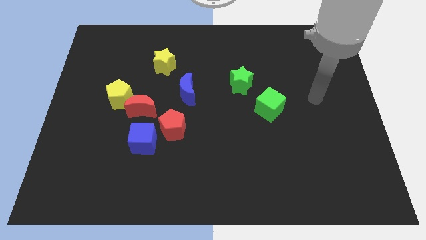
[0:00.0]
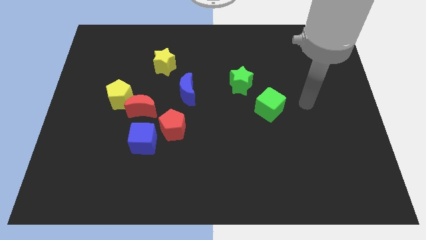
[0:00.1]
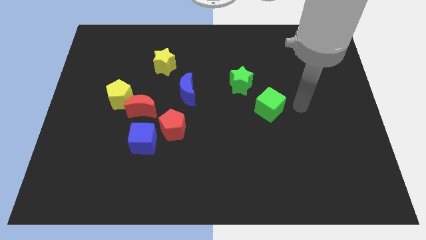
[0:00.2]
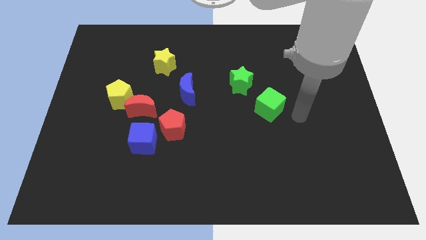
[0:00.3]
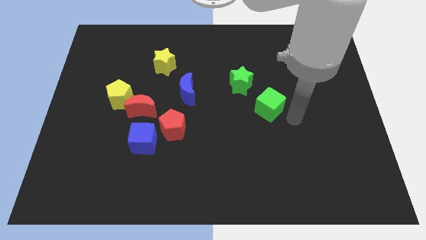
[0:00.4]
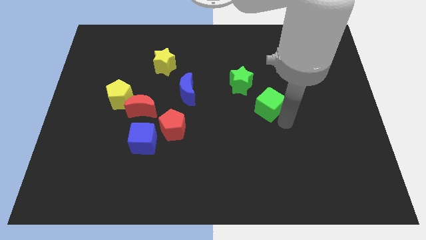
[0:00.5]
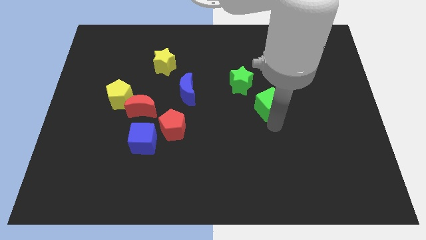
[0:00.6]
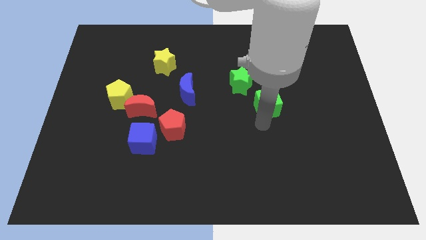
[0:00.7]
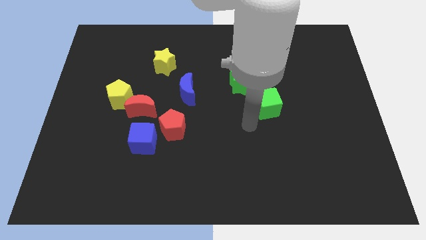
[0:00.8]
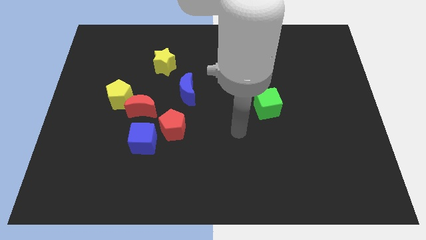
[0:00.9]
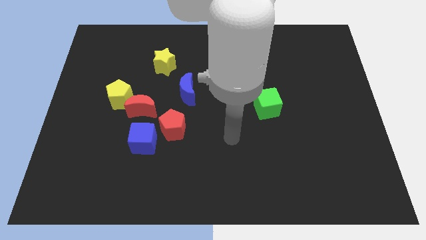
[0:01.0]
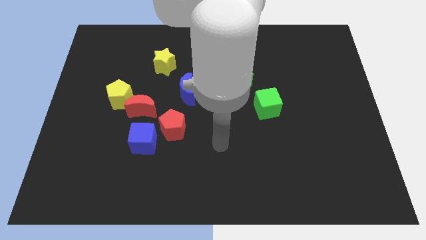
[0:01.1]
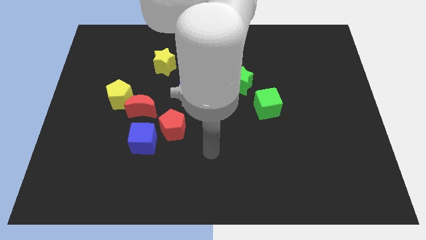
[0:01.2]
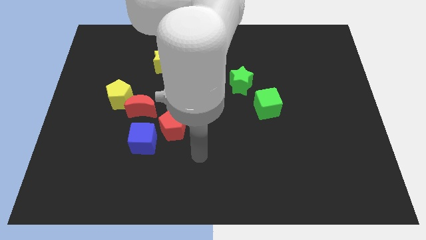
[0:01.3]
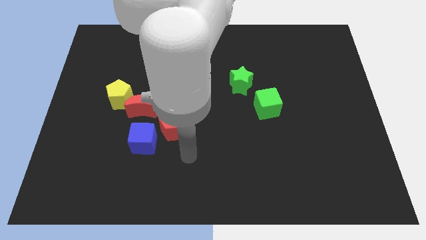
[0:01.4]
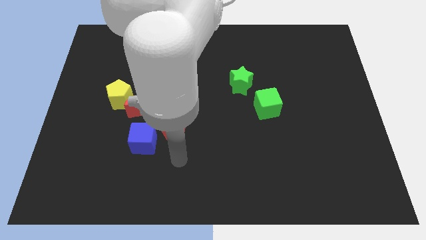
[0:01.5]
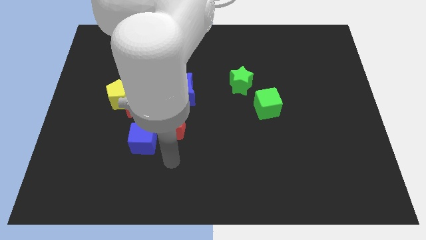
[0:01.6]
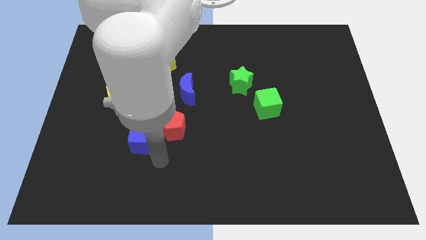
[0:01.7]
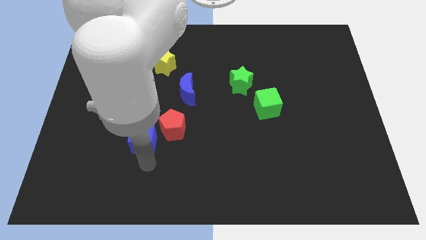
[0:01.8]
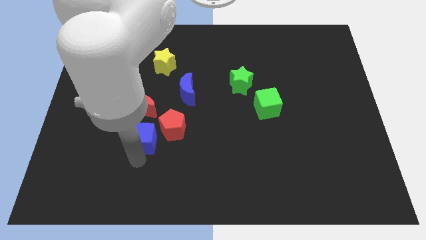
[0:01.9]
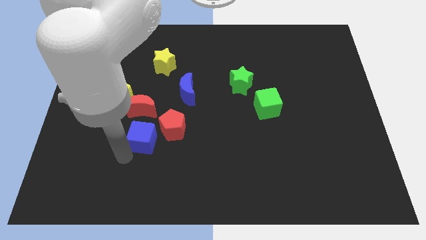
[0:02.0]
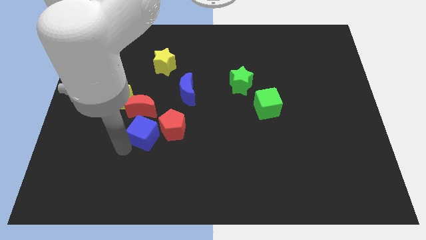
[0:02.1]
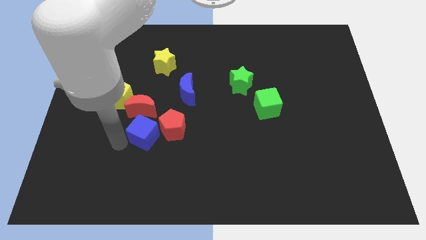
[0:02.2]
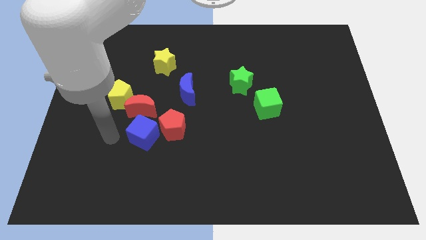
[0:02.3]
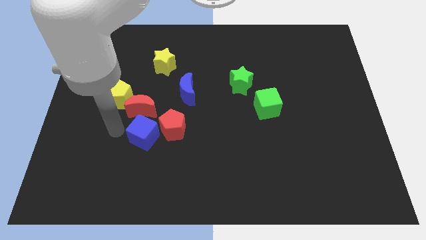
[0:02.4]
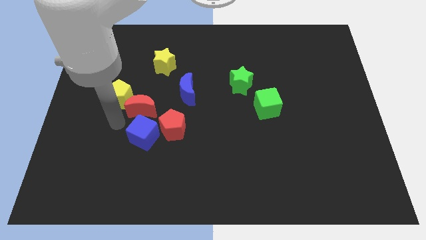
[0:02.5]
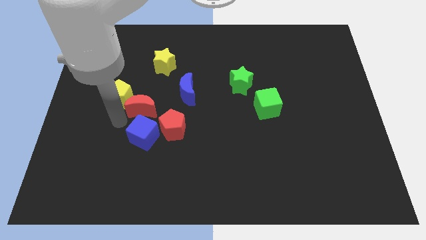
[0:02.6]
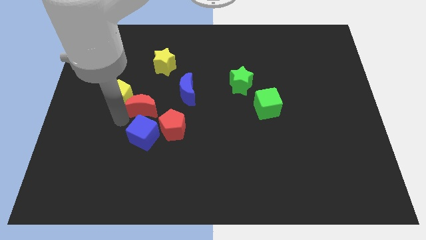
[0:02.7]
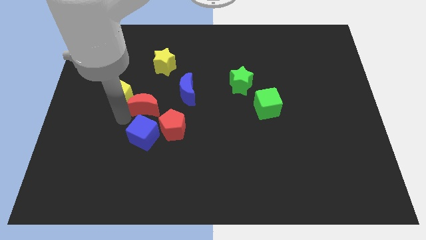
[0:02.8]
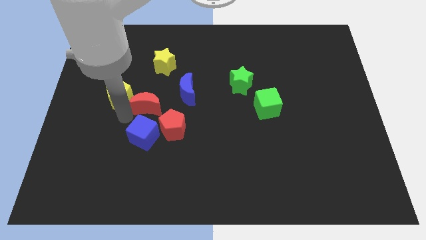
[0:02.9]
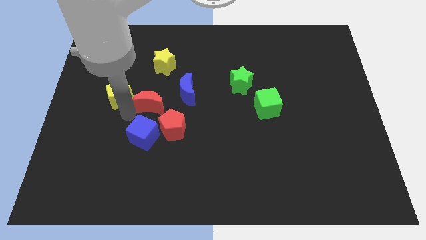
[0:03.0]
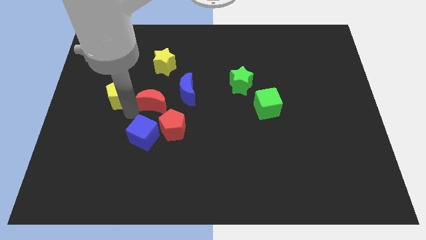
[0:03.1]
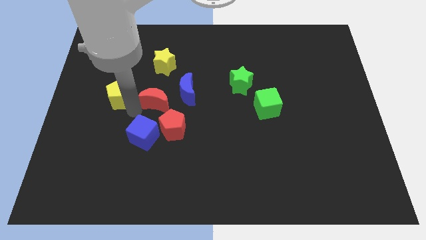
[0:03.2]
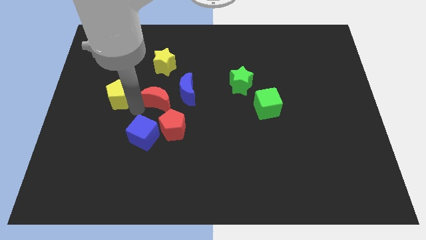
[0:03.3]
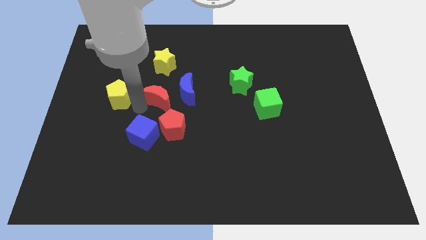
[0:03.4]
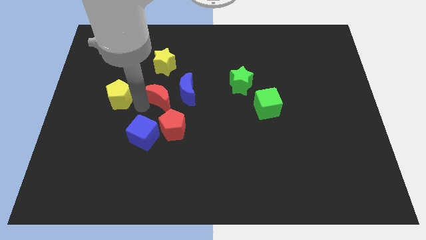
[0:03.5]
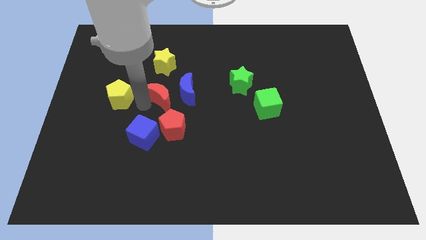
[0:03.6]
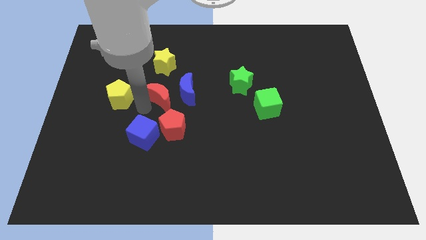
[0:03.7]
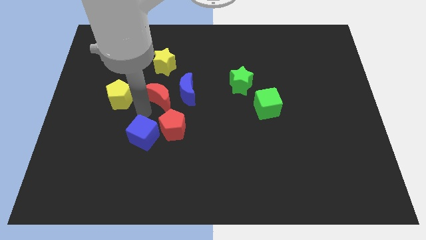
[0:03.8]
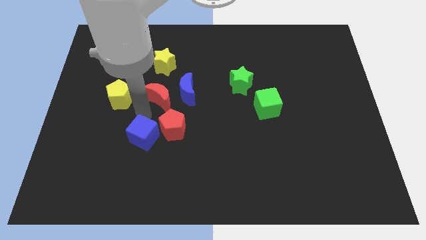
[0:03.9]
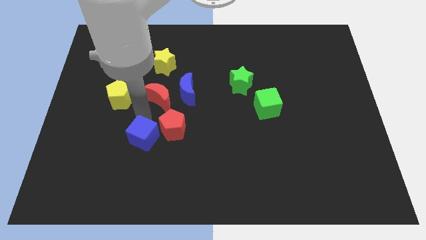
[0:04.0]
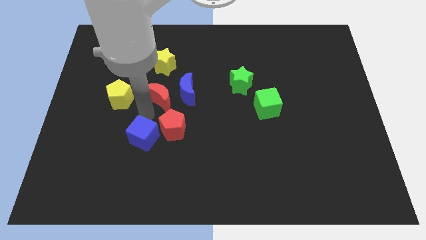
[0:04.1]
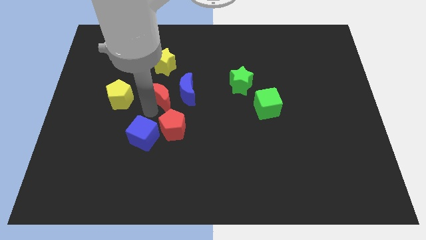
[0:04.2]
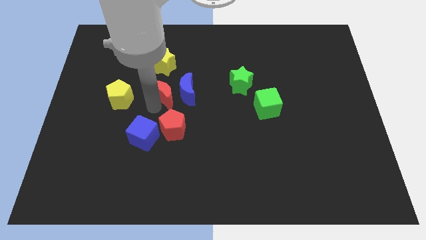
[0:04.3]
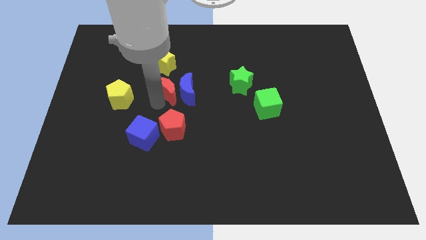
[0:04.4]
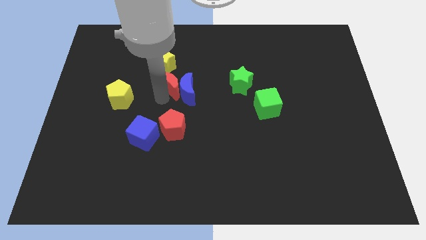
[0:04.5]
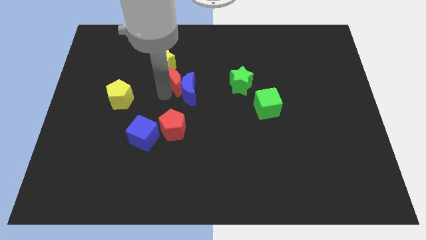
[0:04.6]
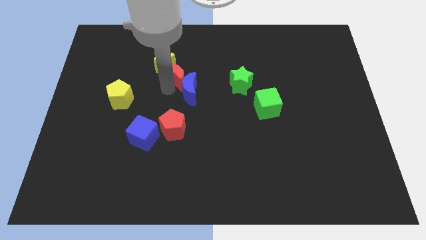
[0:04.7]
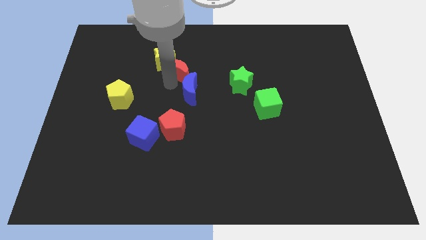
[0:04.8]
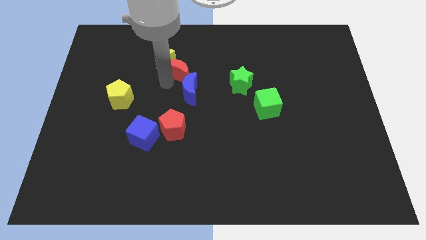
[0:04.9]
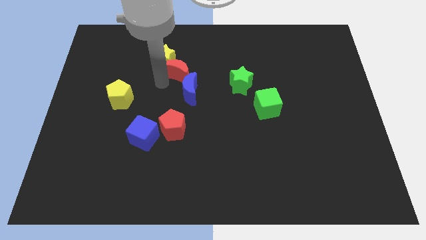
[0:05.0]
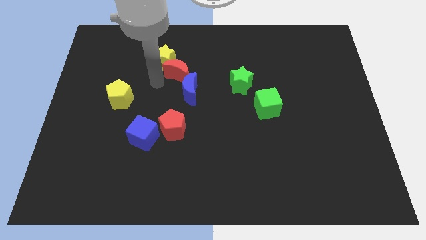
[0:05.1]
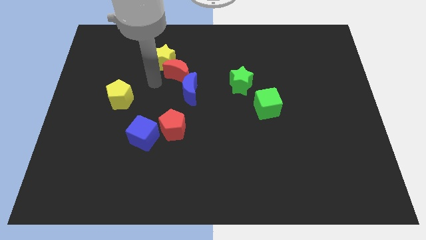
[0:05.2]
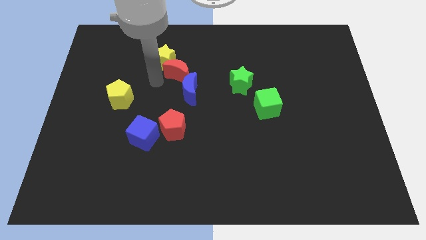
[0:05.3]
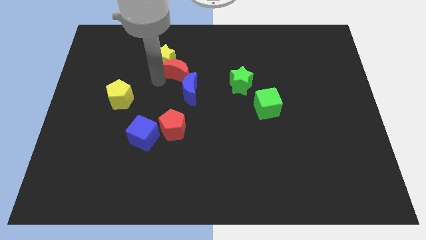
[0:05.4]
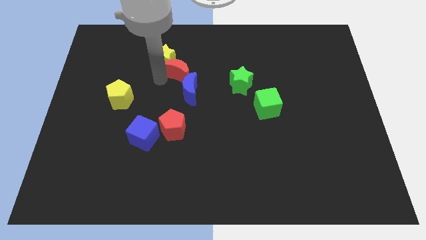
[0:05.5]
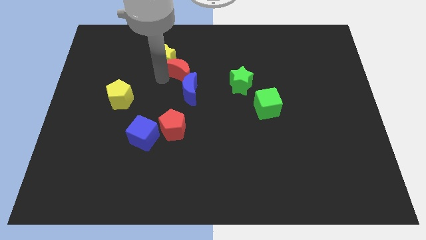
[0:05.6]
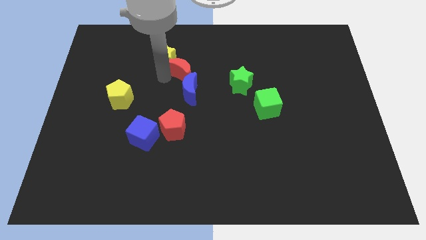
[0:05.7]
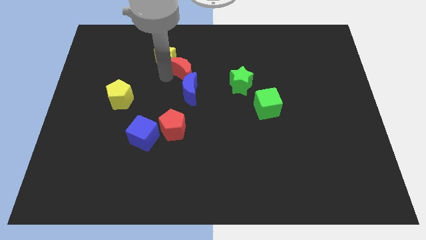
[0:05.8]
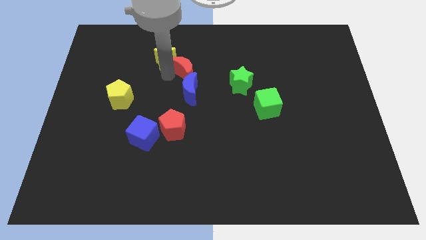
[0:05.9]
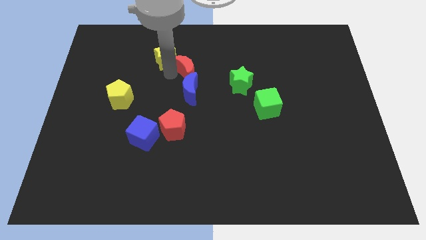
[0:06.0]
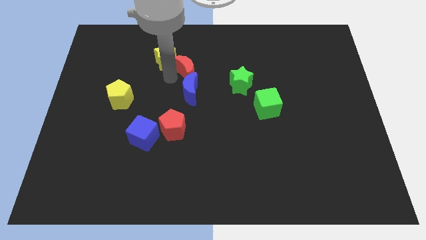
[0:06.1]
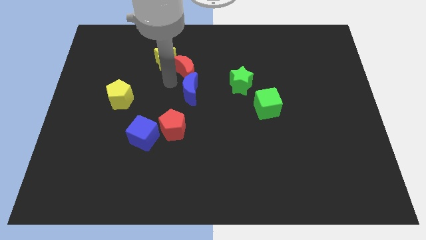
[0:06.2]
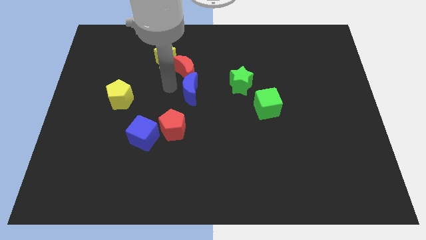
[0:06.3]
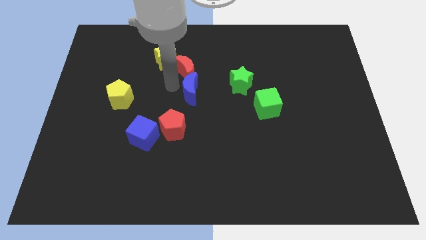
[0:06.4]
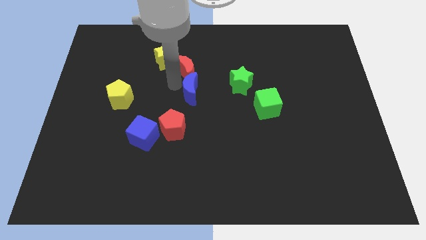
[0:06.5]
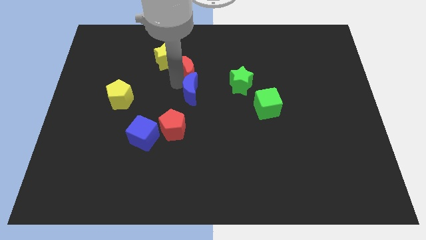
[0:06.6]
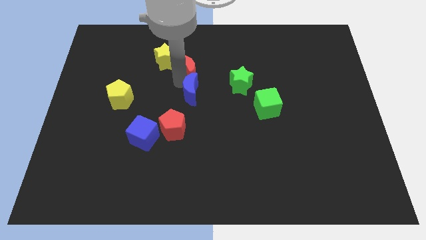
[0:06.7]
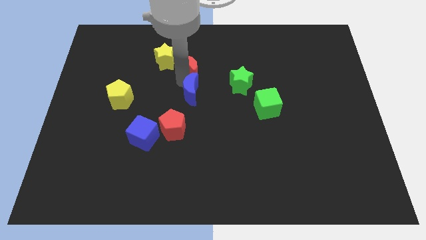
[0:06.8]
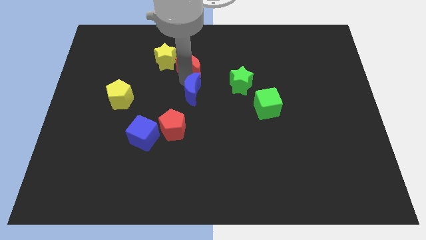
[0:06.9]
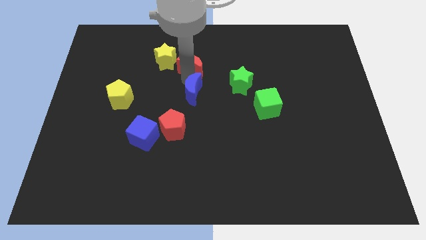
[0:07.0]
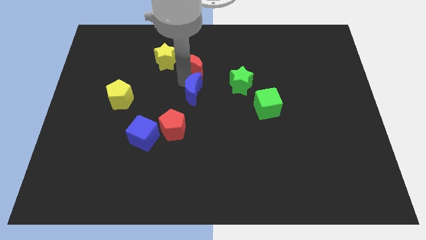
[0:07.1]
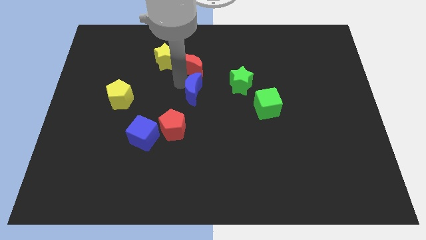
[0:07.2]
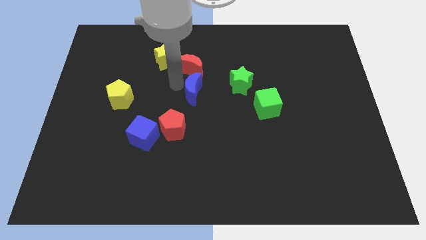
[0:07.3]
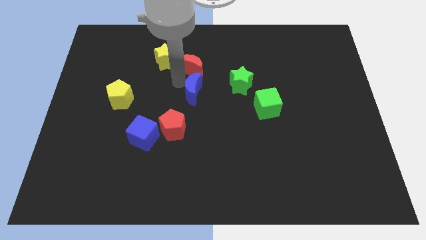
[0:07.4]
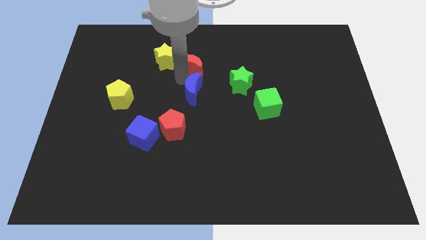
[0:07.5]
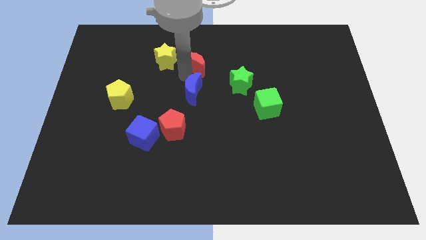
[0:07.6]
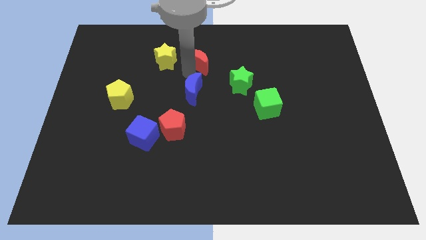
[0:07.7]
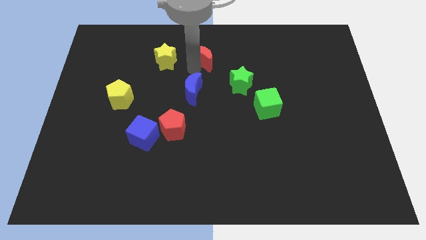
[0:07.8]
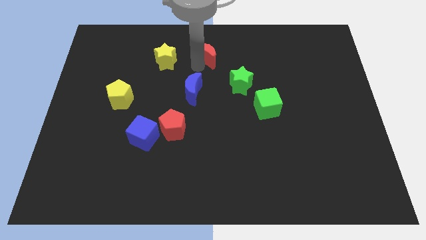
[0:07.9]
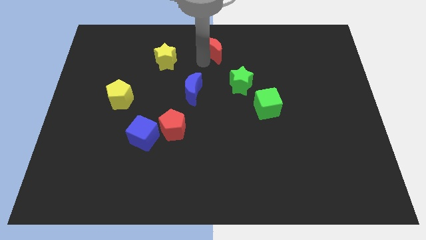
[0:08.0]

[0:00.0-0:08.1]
move the red moon to the towards your base
